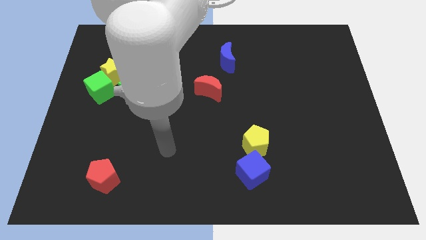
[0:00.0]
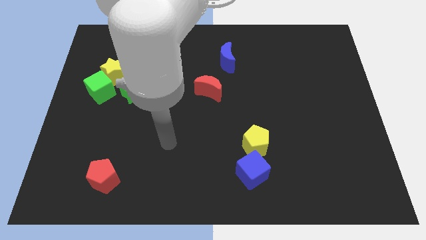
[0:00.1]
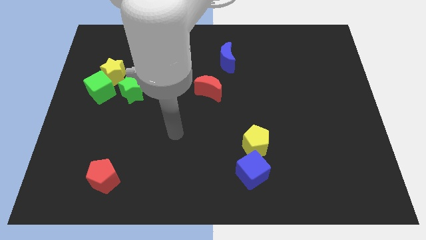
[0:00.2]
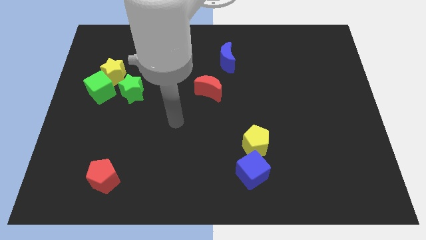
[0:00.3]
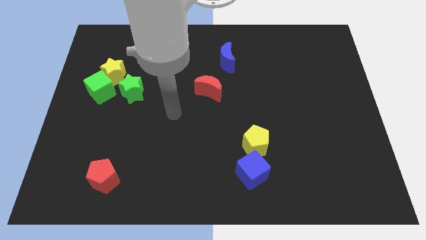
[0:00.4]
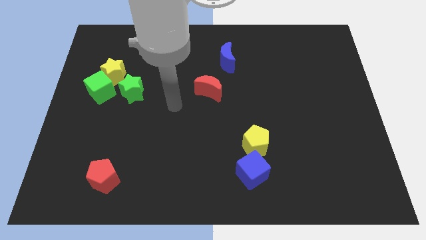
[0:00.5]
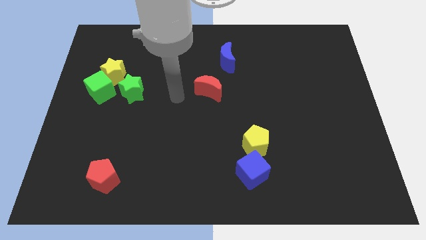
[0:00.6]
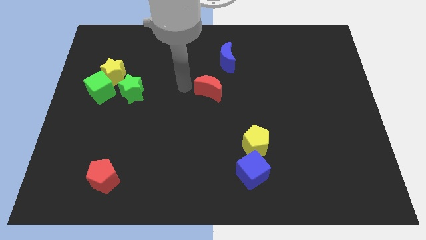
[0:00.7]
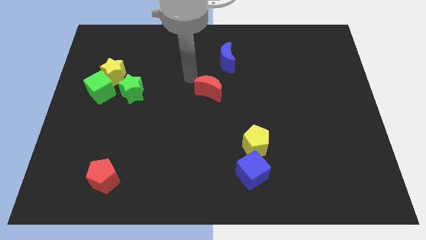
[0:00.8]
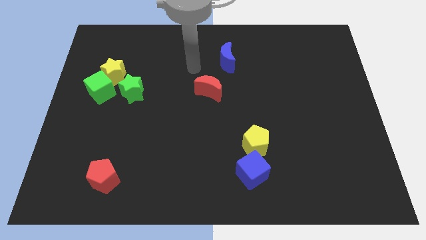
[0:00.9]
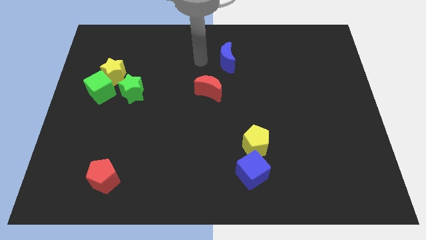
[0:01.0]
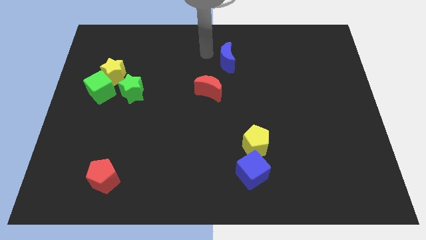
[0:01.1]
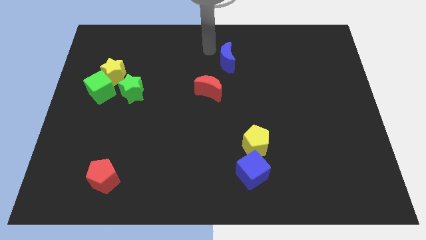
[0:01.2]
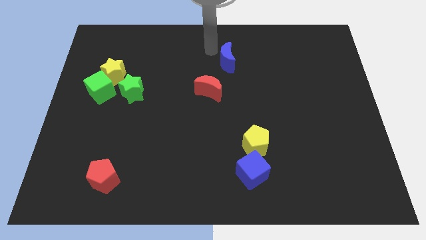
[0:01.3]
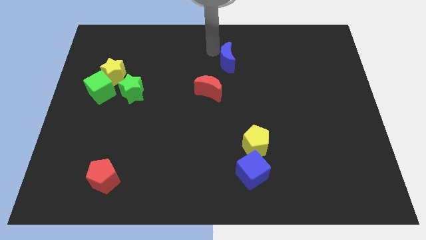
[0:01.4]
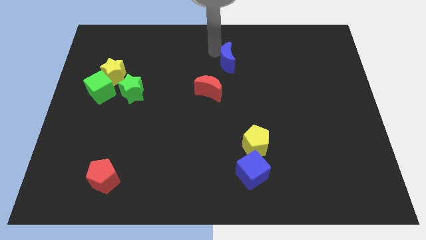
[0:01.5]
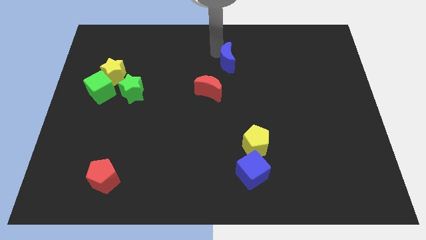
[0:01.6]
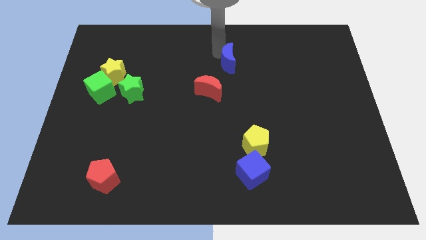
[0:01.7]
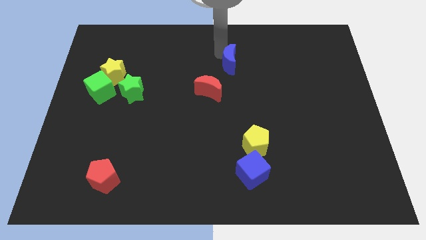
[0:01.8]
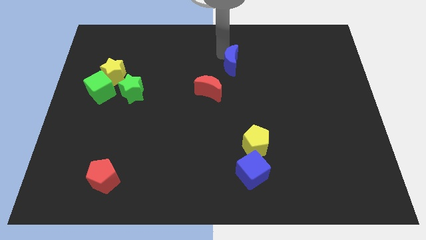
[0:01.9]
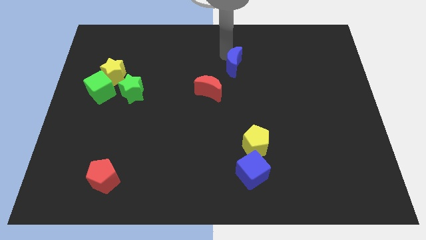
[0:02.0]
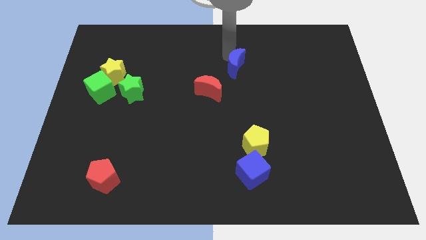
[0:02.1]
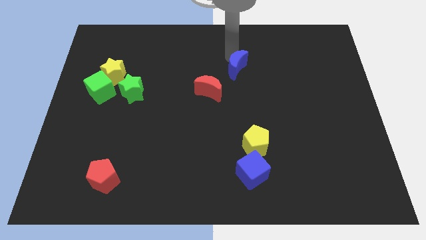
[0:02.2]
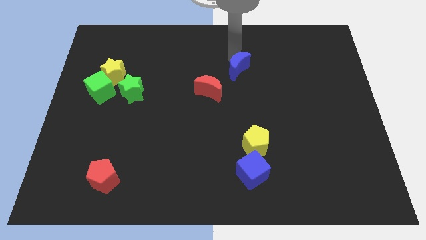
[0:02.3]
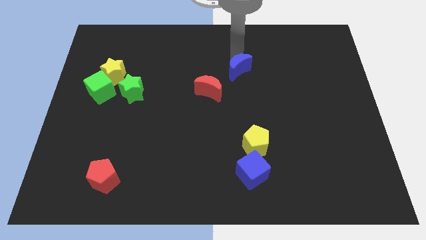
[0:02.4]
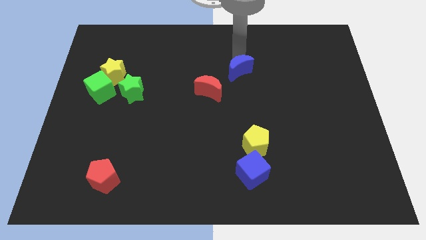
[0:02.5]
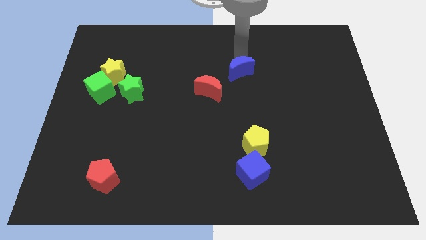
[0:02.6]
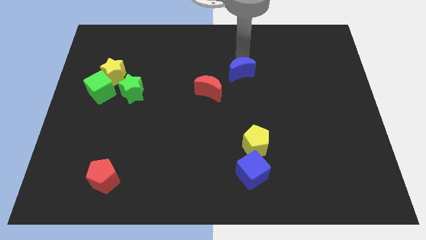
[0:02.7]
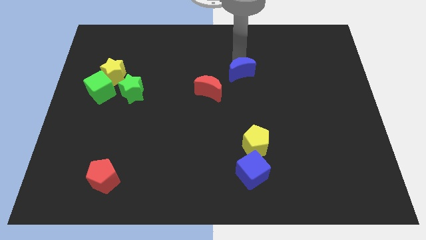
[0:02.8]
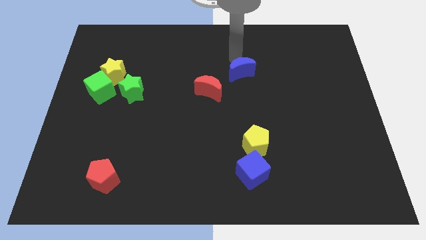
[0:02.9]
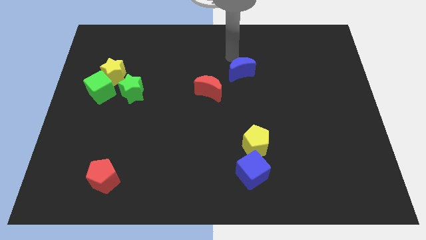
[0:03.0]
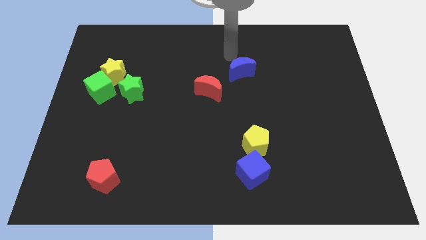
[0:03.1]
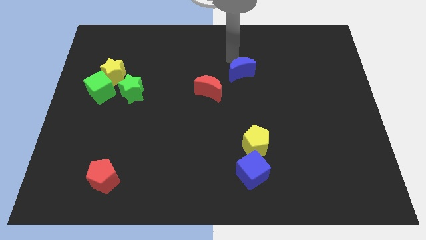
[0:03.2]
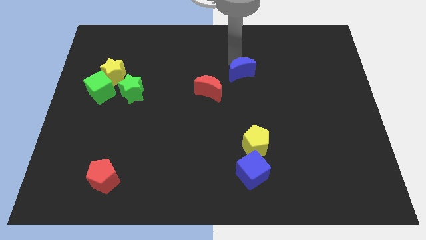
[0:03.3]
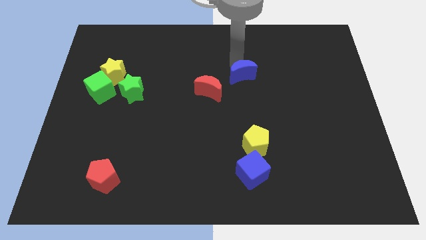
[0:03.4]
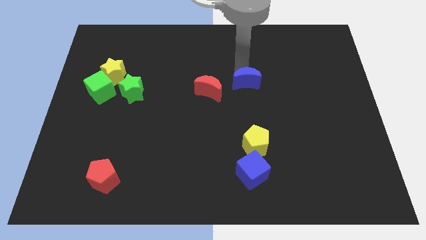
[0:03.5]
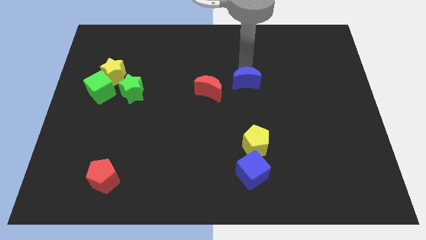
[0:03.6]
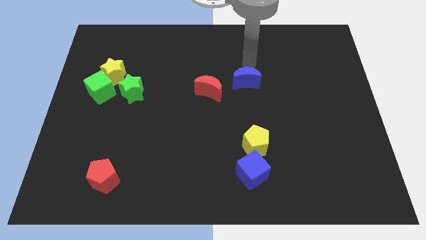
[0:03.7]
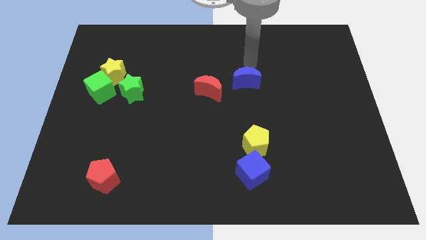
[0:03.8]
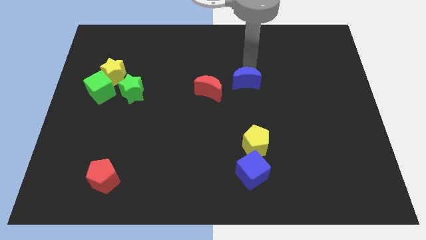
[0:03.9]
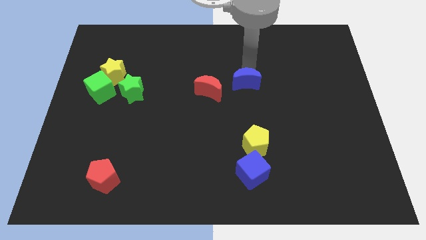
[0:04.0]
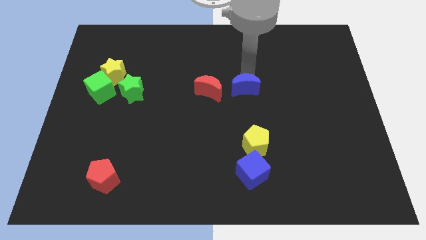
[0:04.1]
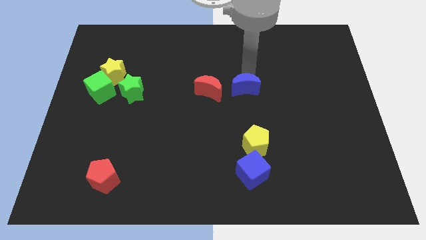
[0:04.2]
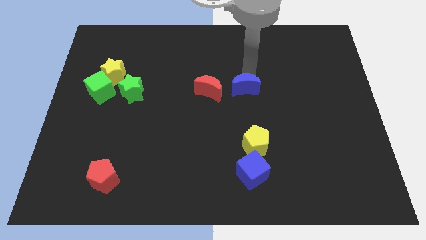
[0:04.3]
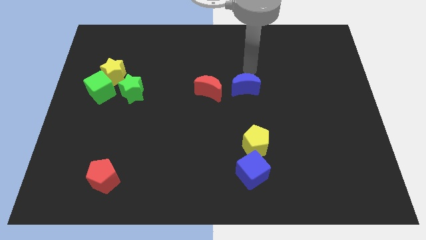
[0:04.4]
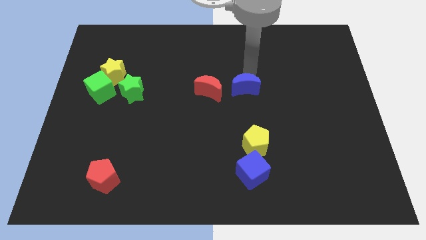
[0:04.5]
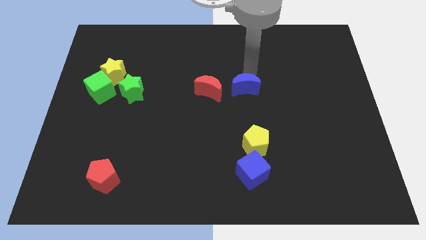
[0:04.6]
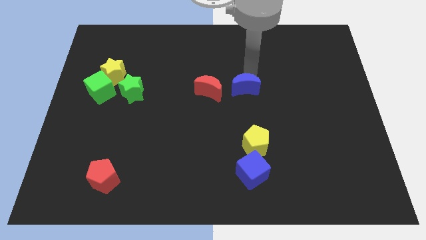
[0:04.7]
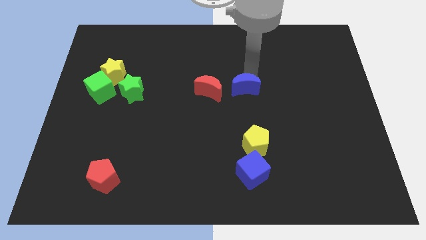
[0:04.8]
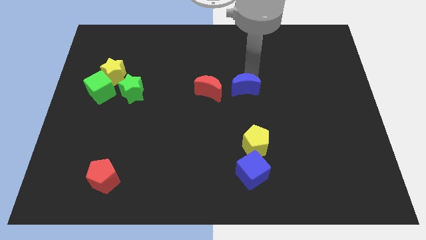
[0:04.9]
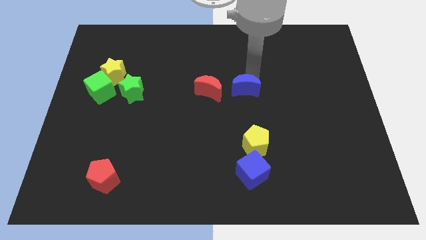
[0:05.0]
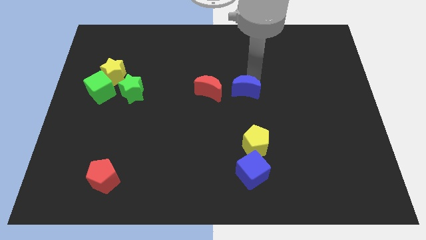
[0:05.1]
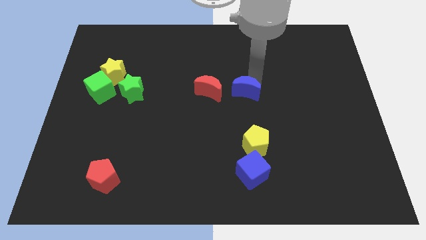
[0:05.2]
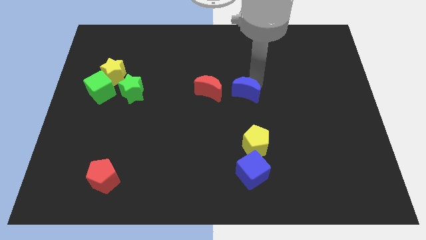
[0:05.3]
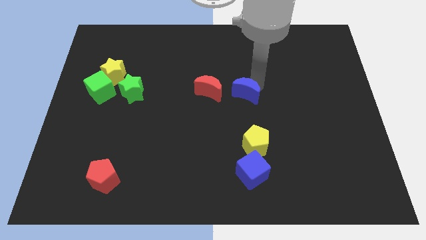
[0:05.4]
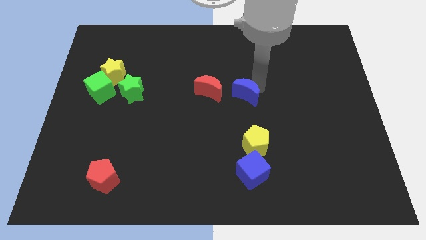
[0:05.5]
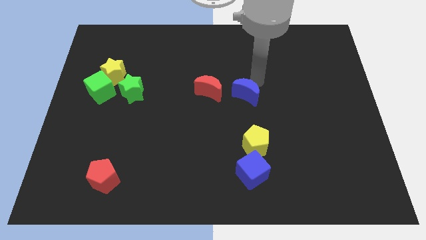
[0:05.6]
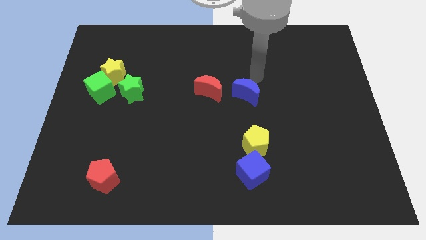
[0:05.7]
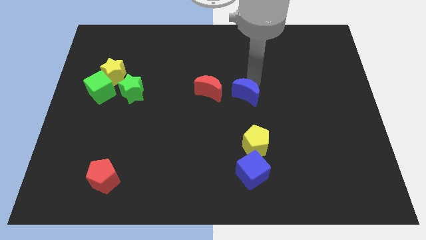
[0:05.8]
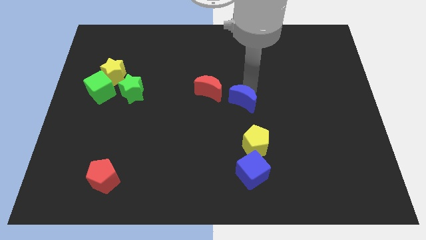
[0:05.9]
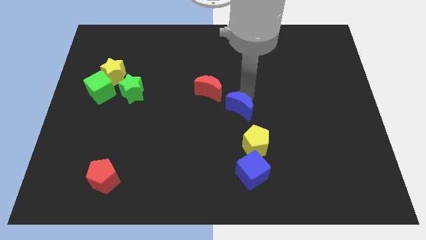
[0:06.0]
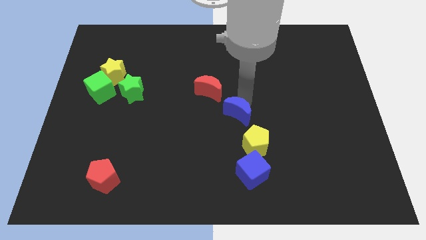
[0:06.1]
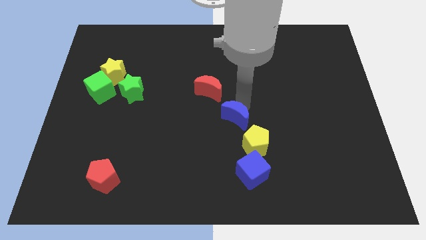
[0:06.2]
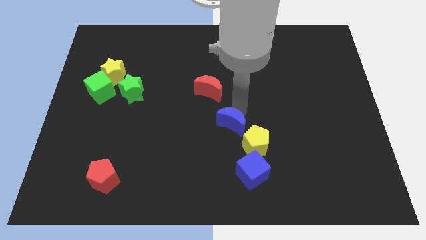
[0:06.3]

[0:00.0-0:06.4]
move the blue moon down

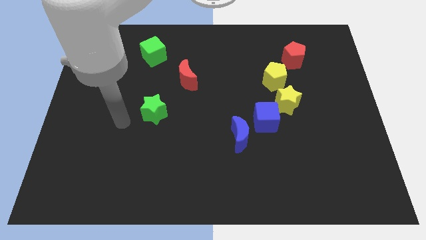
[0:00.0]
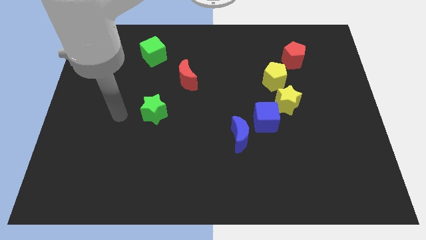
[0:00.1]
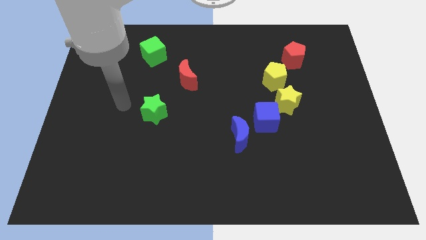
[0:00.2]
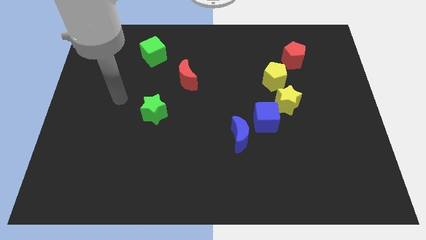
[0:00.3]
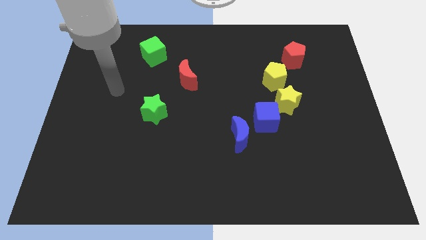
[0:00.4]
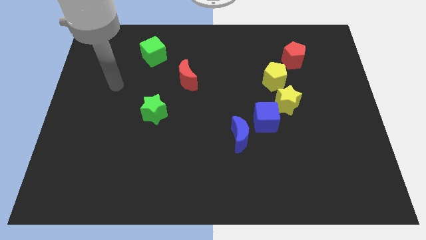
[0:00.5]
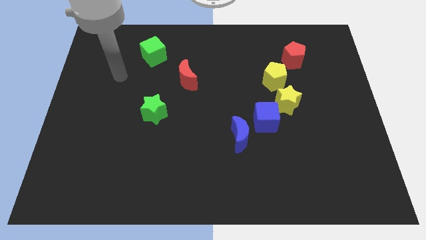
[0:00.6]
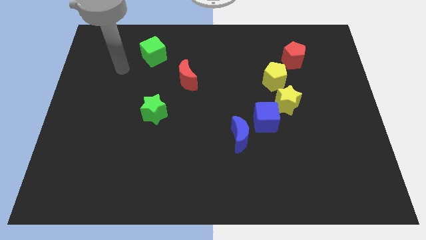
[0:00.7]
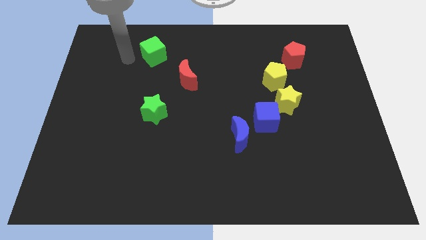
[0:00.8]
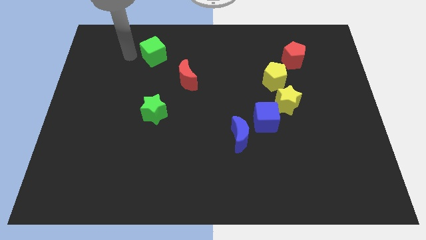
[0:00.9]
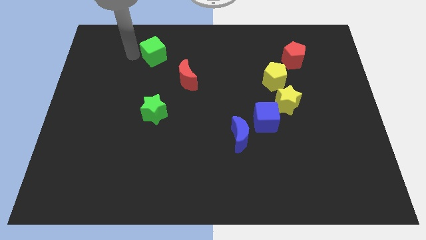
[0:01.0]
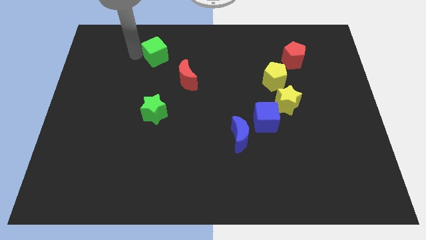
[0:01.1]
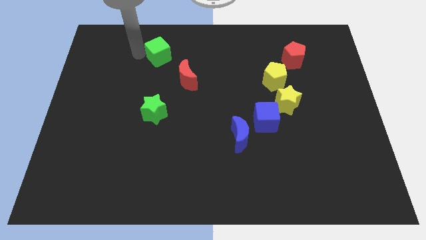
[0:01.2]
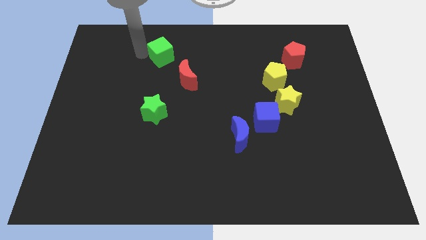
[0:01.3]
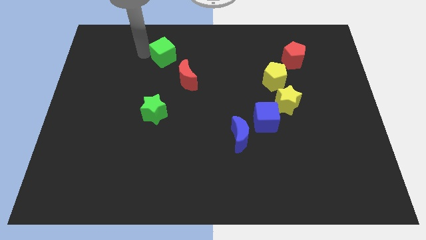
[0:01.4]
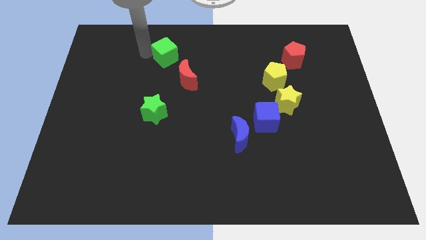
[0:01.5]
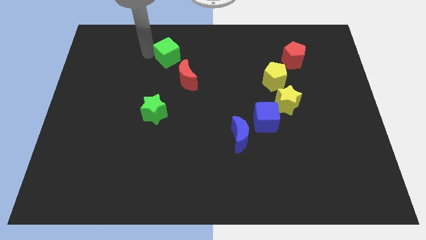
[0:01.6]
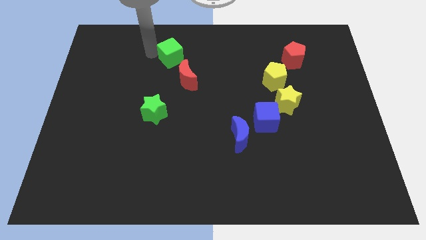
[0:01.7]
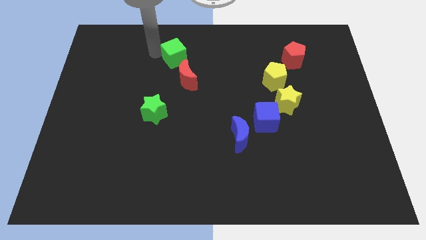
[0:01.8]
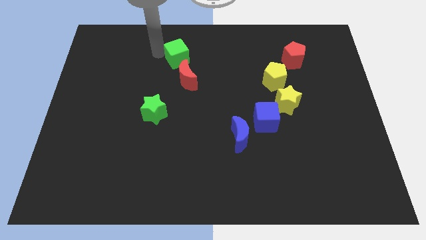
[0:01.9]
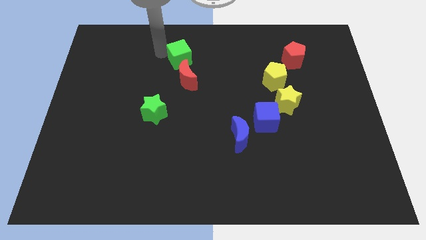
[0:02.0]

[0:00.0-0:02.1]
push the green cube to the right somewhat
